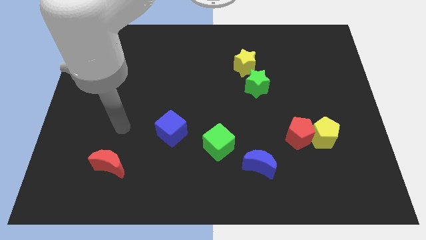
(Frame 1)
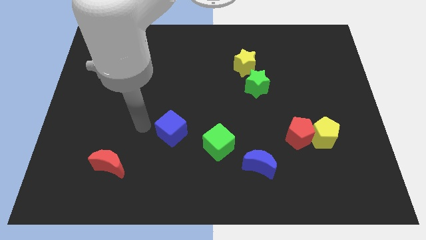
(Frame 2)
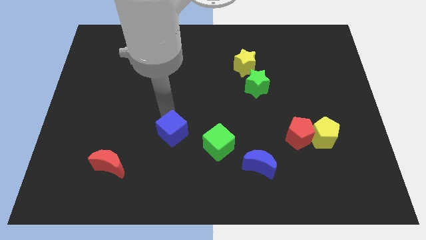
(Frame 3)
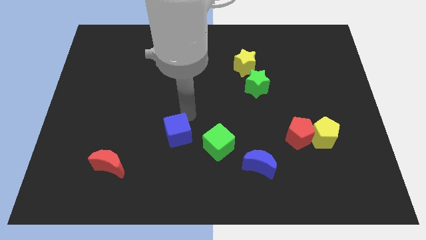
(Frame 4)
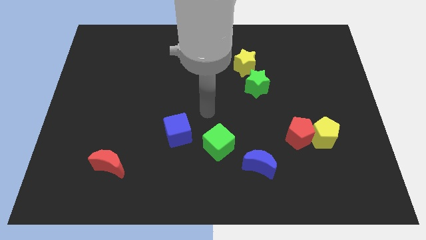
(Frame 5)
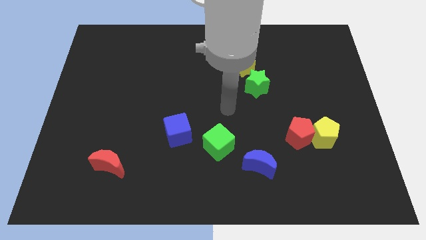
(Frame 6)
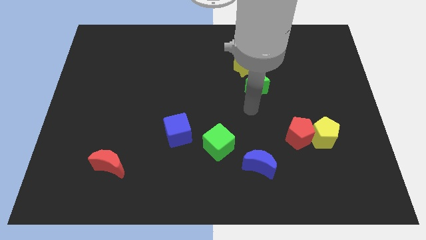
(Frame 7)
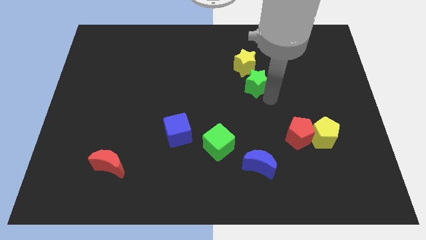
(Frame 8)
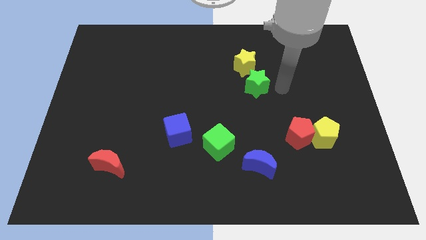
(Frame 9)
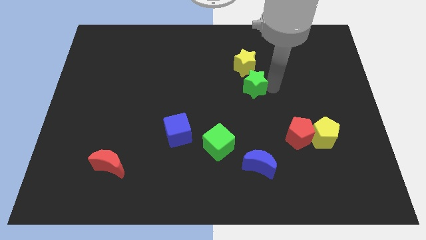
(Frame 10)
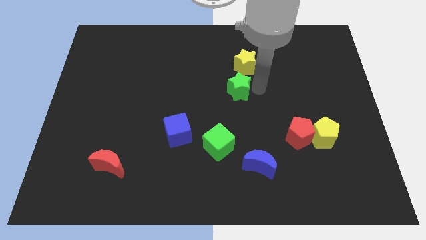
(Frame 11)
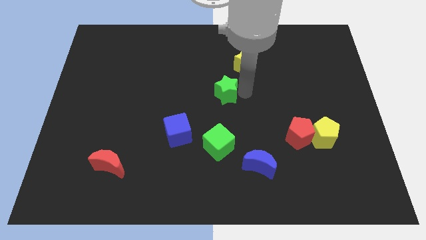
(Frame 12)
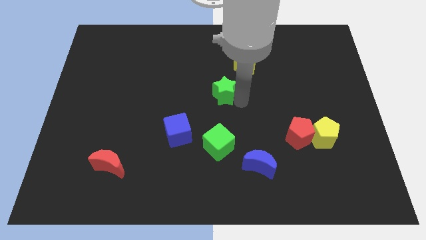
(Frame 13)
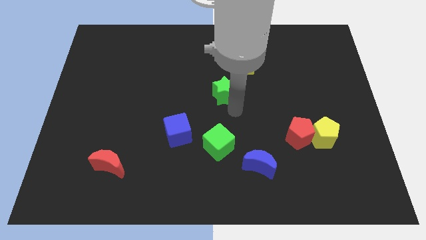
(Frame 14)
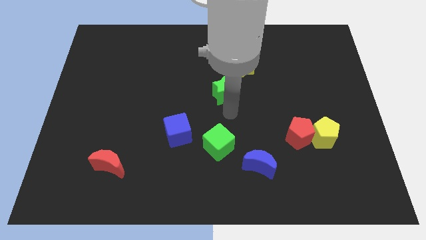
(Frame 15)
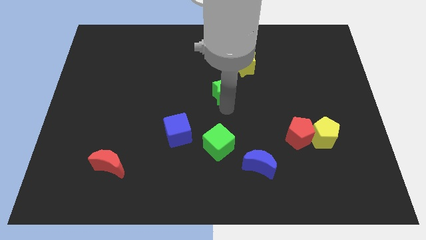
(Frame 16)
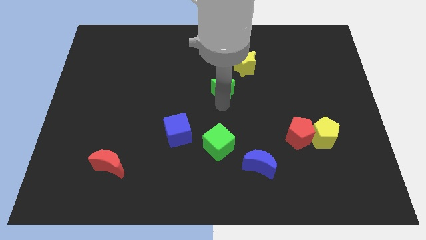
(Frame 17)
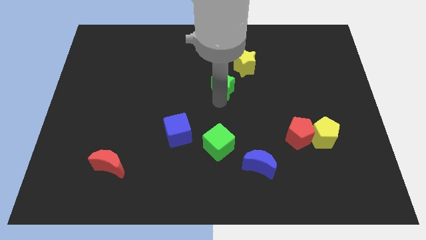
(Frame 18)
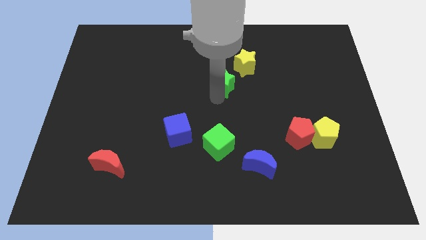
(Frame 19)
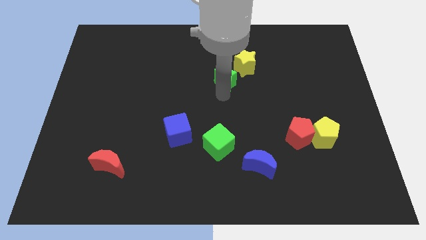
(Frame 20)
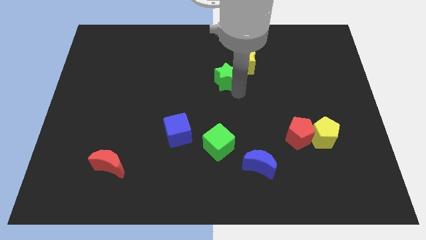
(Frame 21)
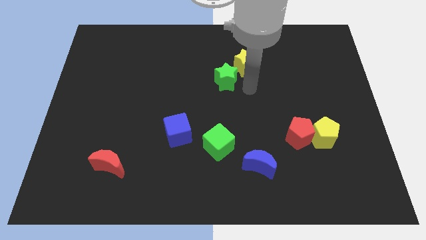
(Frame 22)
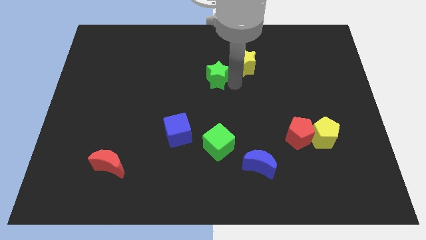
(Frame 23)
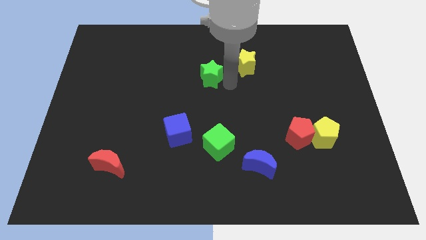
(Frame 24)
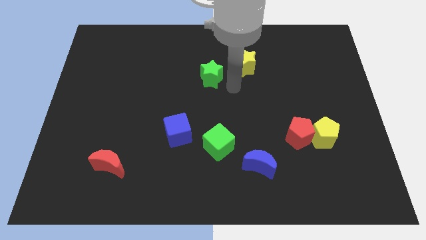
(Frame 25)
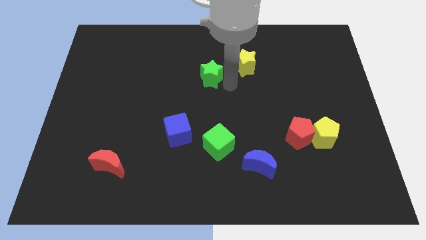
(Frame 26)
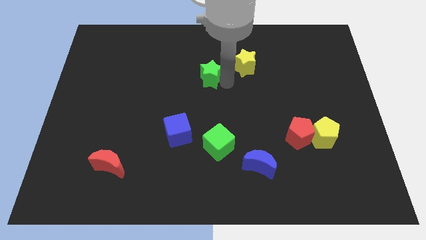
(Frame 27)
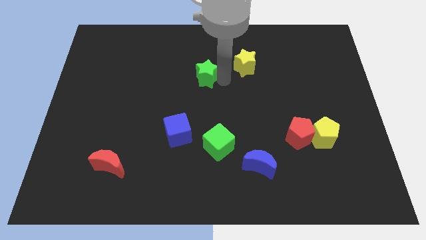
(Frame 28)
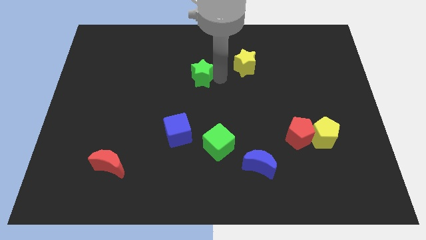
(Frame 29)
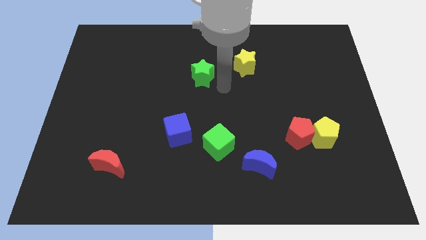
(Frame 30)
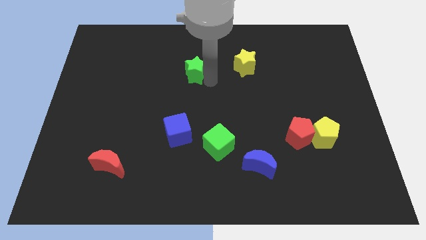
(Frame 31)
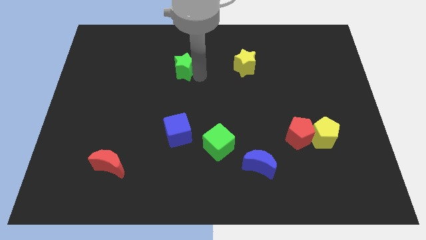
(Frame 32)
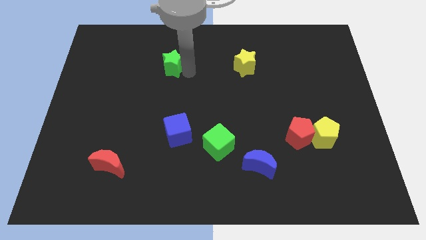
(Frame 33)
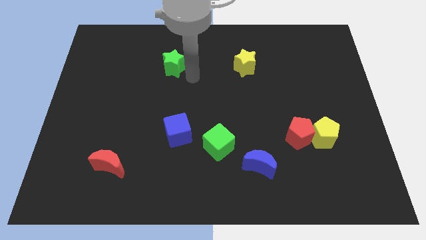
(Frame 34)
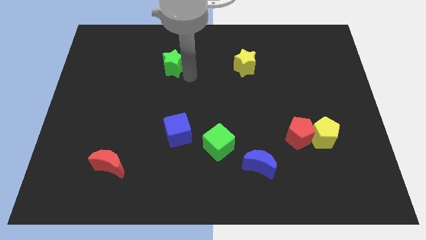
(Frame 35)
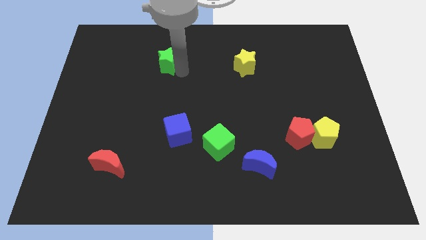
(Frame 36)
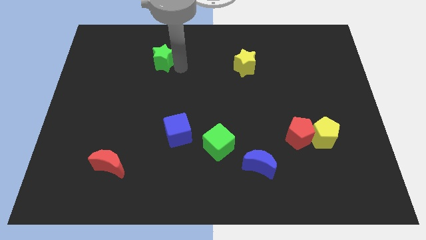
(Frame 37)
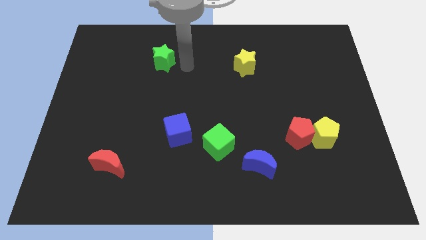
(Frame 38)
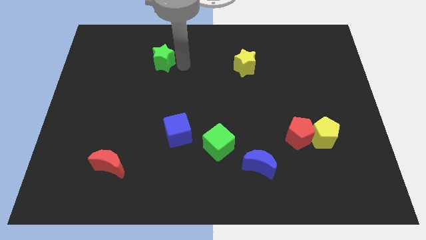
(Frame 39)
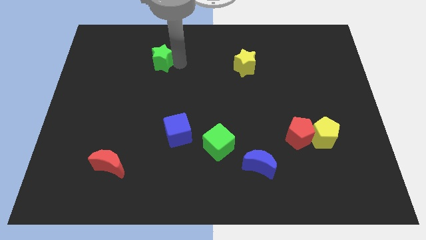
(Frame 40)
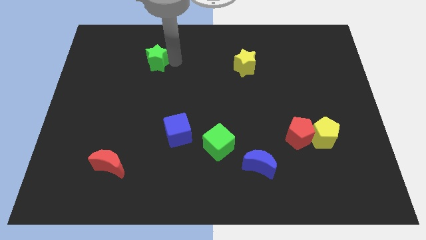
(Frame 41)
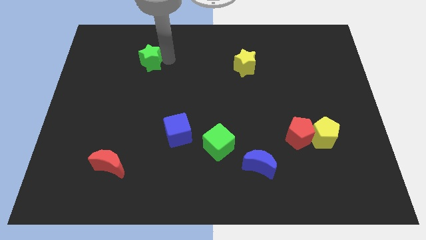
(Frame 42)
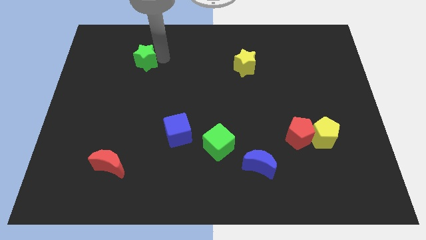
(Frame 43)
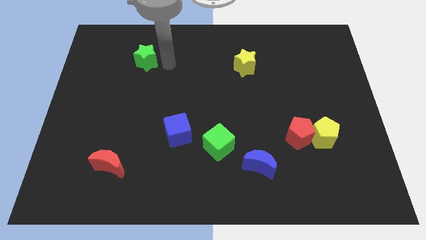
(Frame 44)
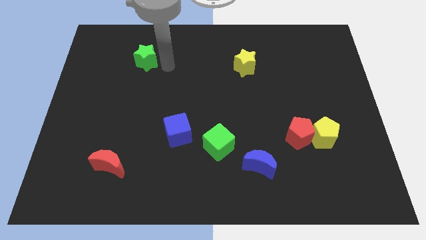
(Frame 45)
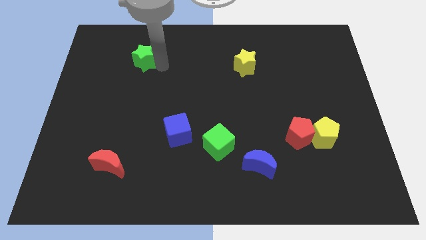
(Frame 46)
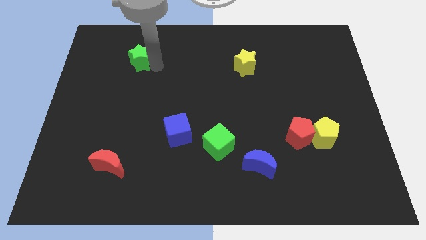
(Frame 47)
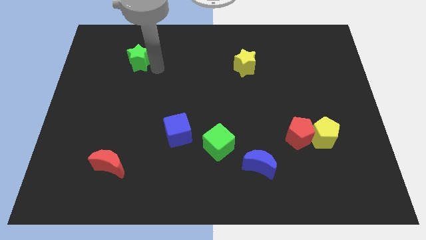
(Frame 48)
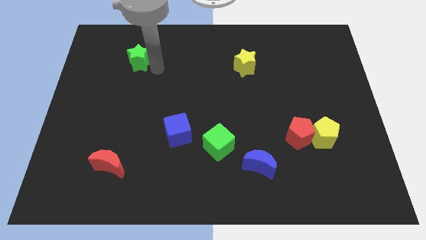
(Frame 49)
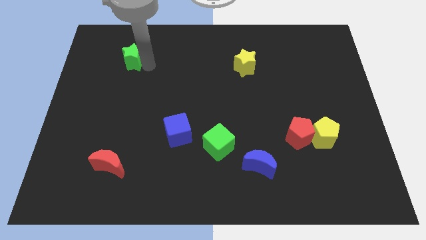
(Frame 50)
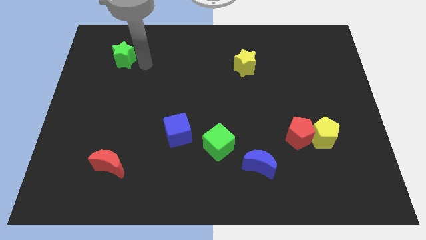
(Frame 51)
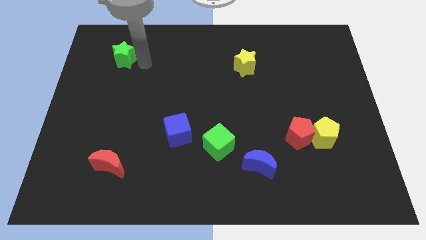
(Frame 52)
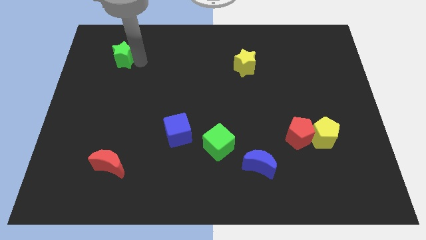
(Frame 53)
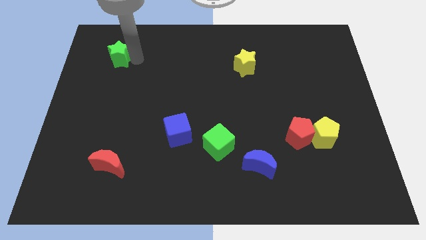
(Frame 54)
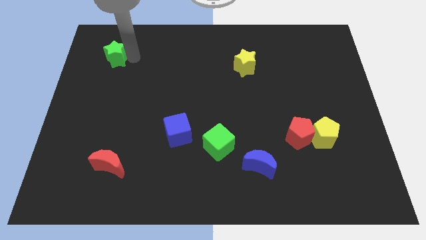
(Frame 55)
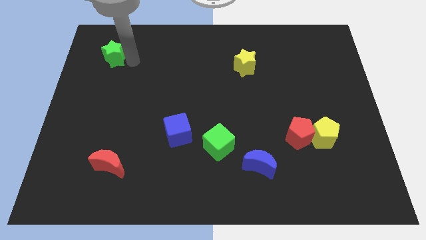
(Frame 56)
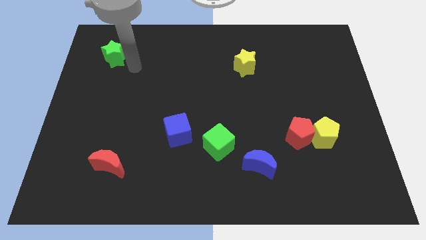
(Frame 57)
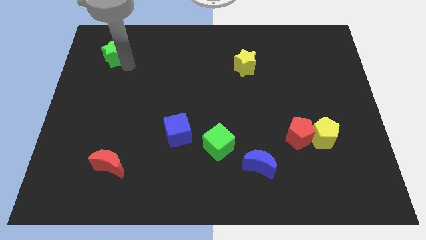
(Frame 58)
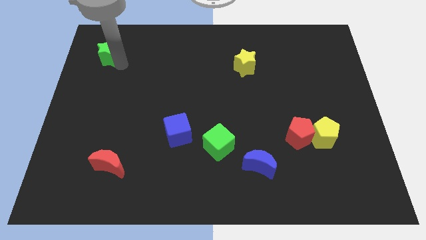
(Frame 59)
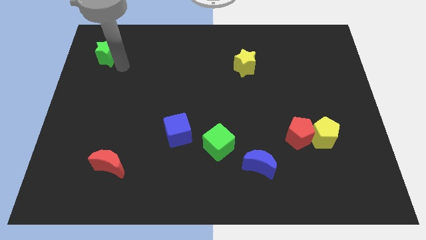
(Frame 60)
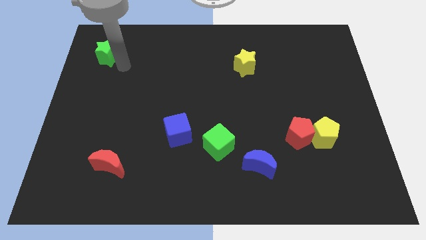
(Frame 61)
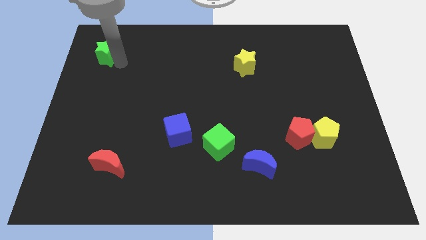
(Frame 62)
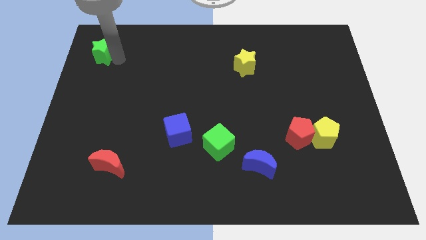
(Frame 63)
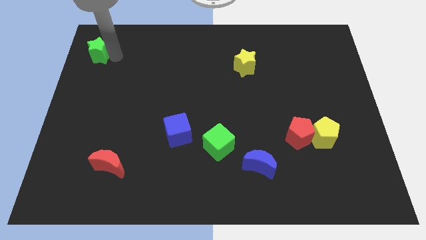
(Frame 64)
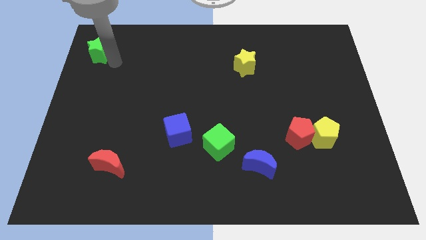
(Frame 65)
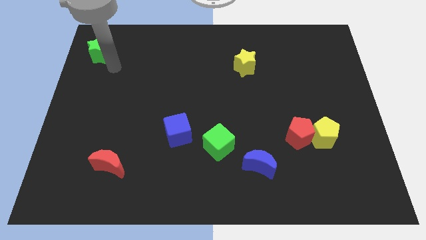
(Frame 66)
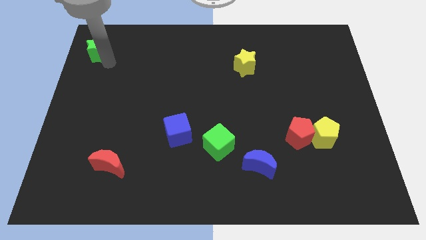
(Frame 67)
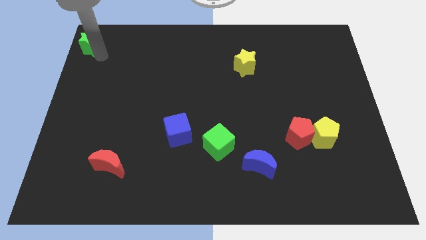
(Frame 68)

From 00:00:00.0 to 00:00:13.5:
push the green star to the upper left corner
